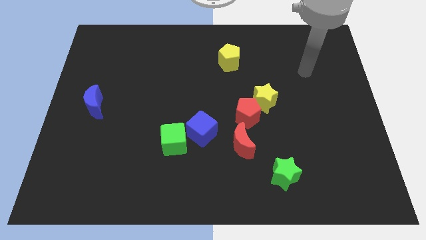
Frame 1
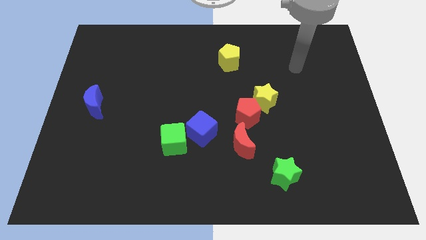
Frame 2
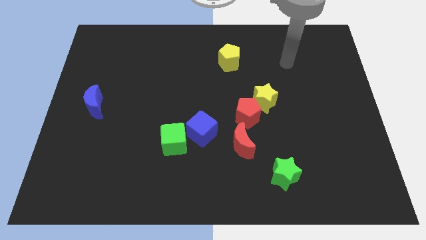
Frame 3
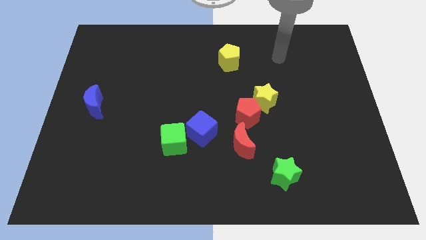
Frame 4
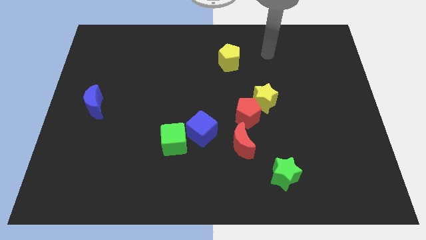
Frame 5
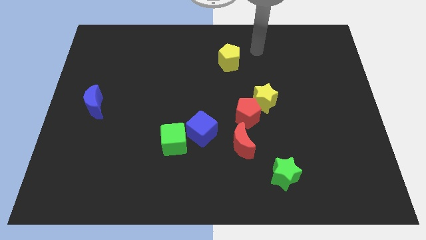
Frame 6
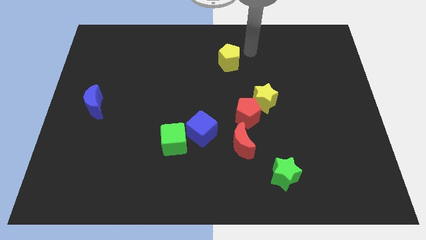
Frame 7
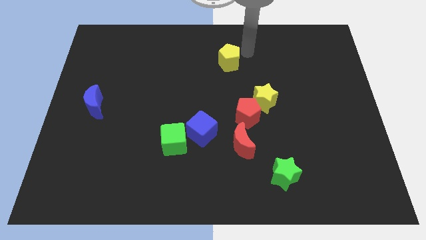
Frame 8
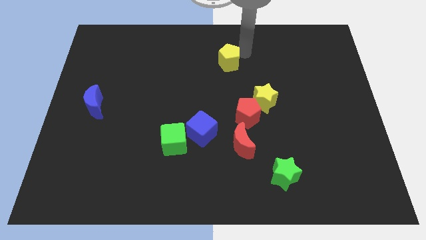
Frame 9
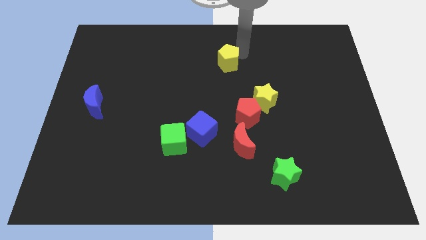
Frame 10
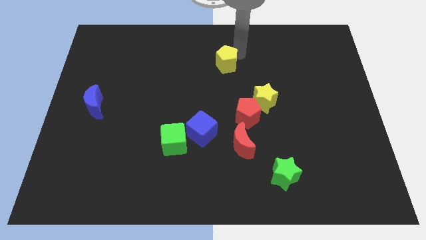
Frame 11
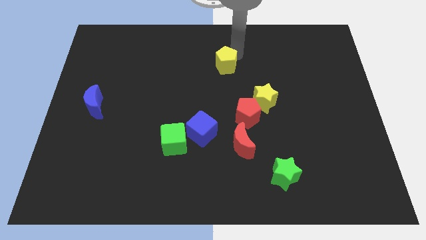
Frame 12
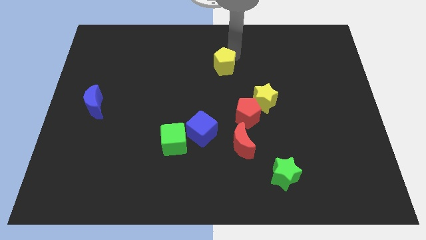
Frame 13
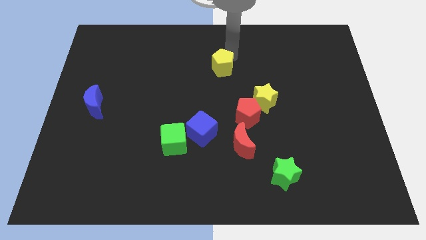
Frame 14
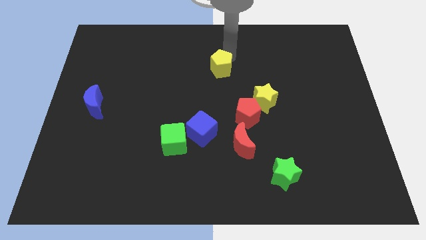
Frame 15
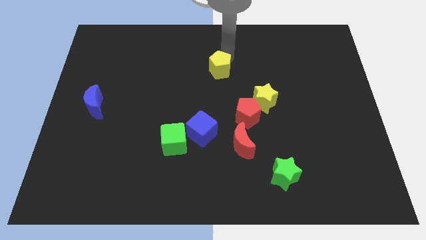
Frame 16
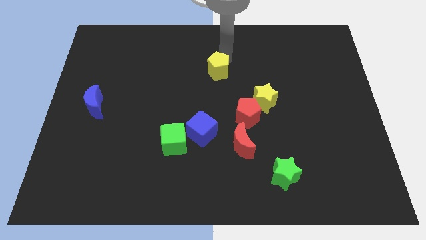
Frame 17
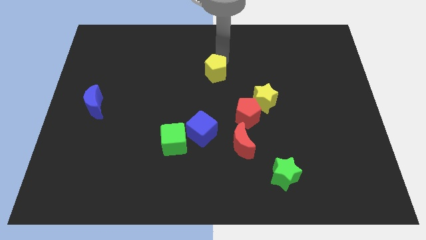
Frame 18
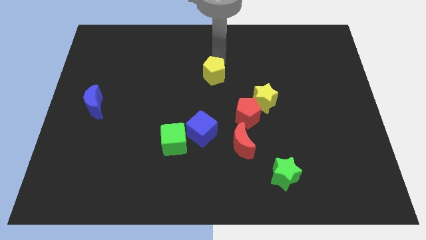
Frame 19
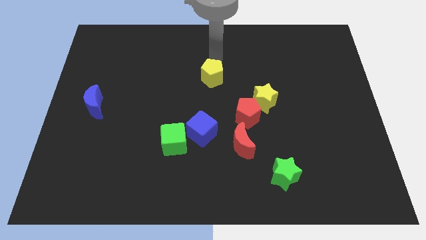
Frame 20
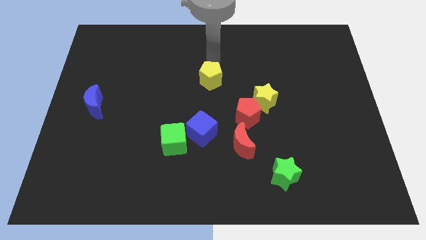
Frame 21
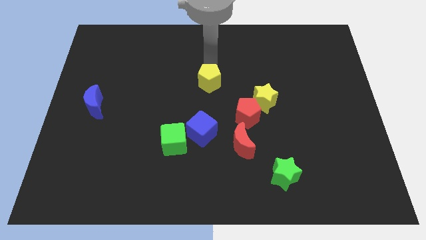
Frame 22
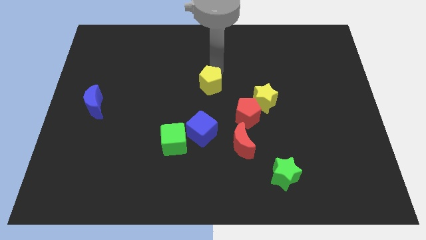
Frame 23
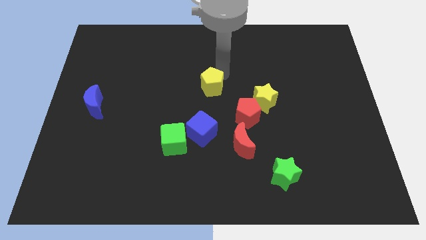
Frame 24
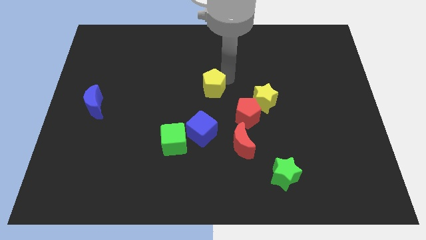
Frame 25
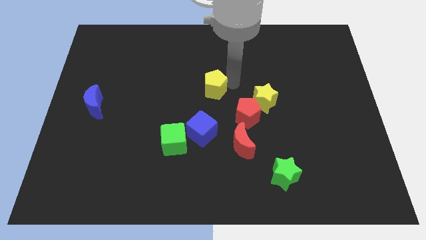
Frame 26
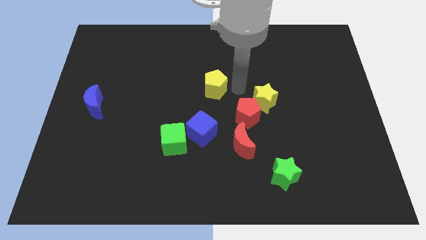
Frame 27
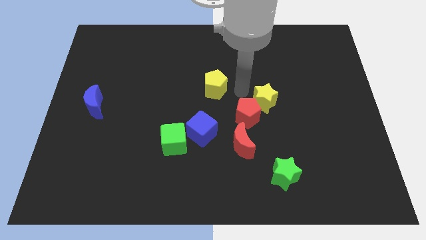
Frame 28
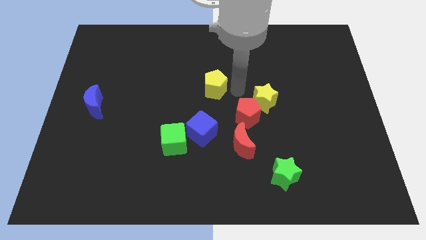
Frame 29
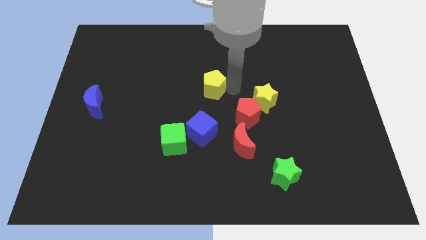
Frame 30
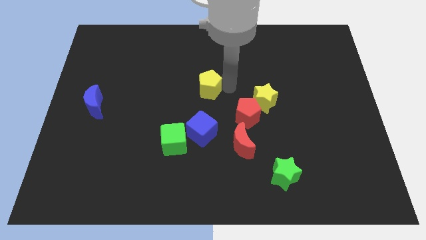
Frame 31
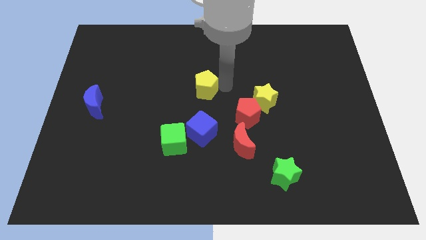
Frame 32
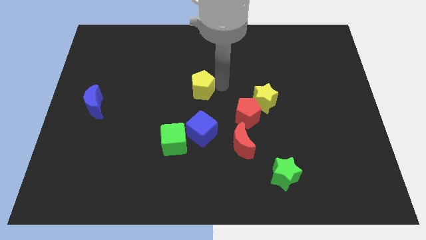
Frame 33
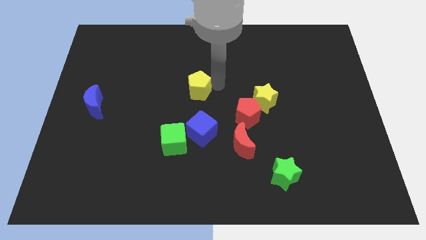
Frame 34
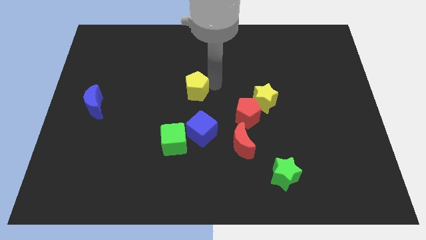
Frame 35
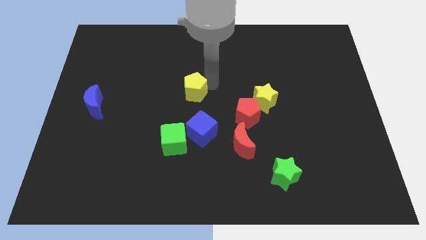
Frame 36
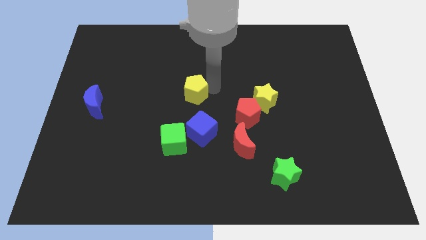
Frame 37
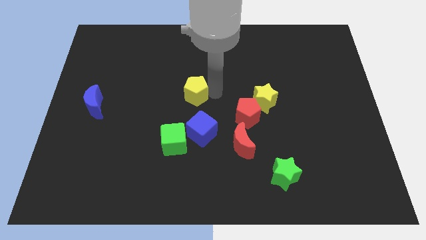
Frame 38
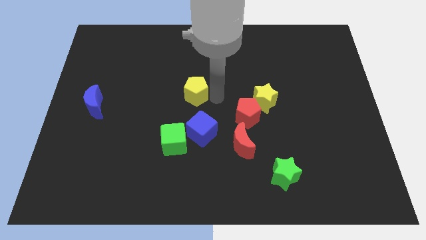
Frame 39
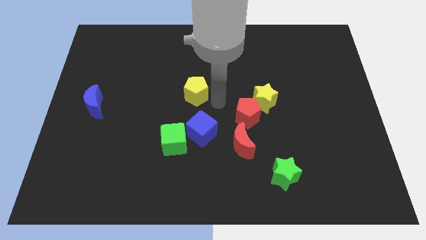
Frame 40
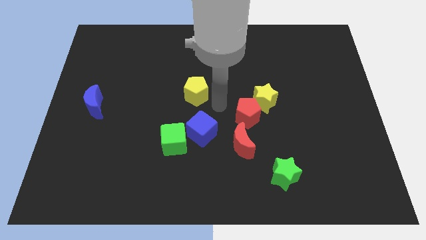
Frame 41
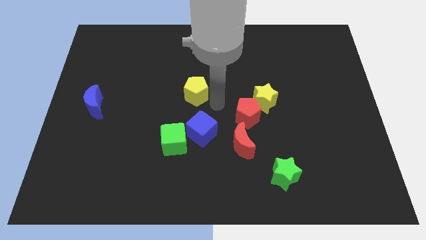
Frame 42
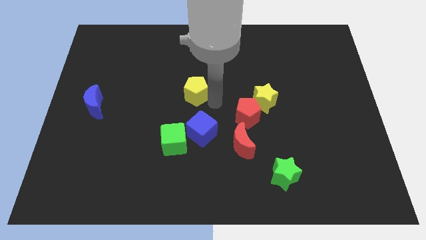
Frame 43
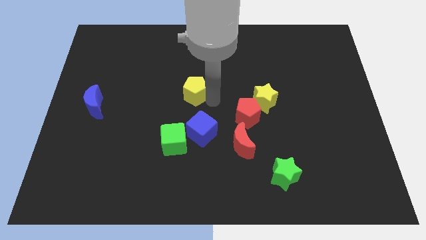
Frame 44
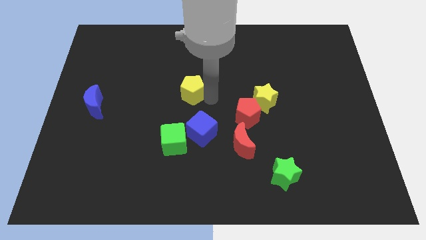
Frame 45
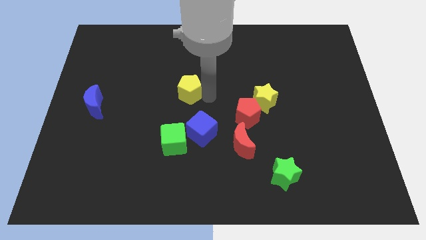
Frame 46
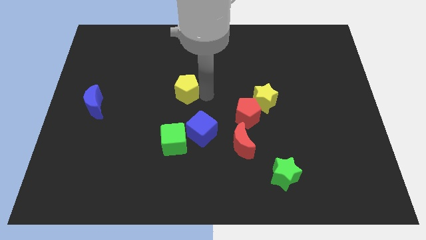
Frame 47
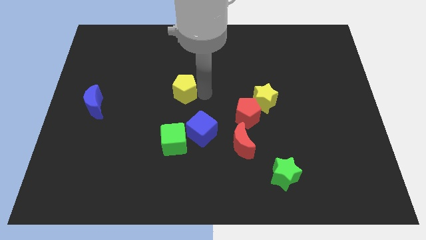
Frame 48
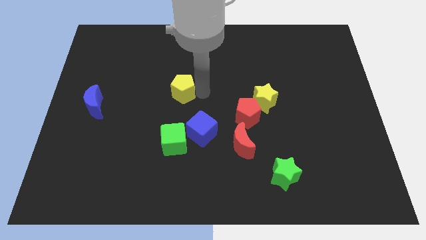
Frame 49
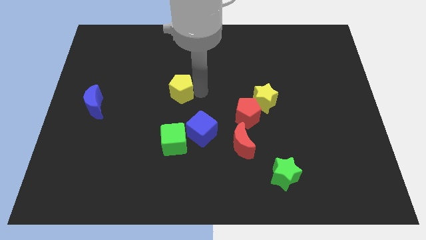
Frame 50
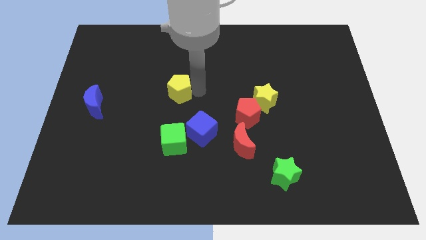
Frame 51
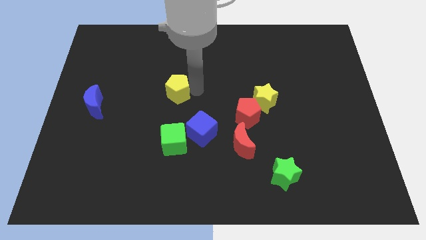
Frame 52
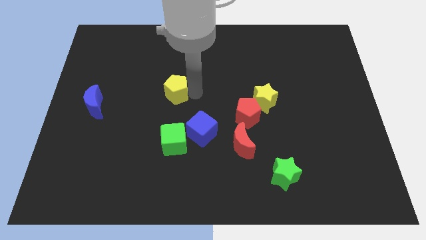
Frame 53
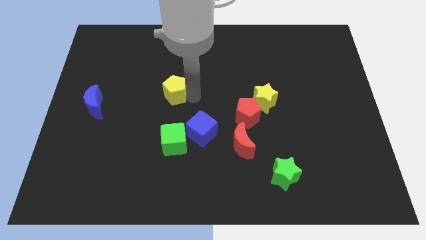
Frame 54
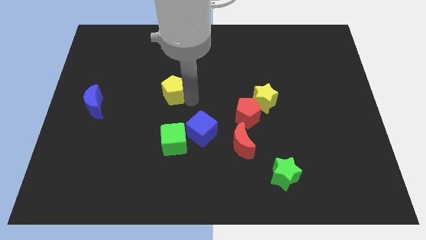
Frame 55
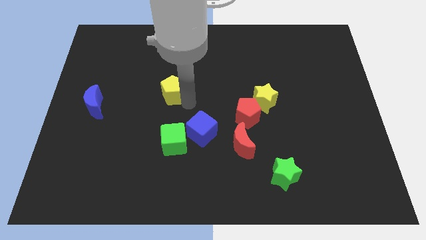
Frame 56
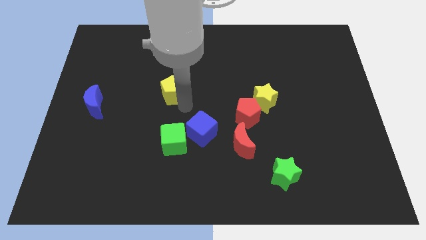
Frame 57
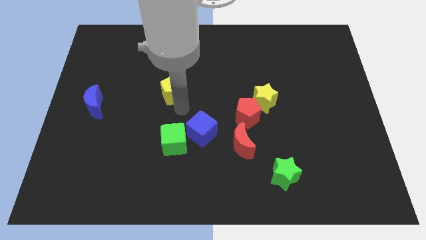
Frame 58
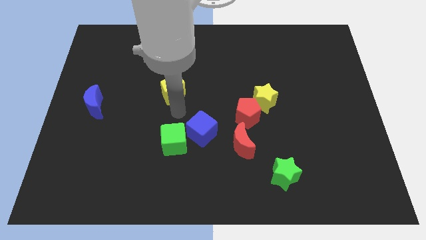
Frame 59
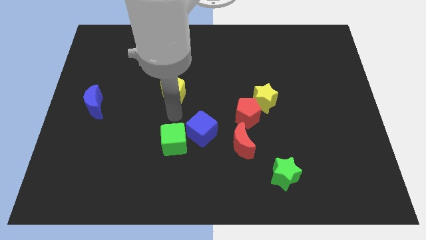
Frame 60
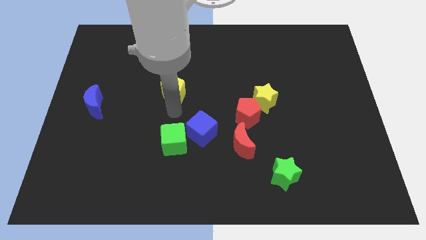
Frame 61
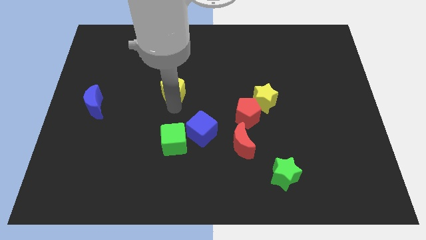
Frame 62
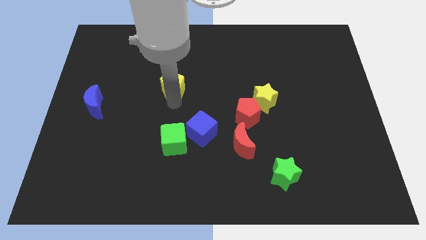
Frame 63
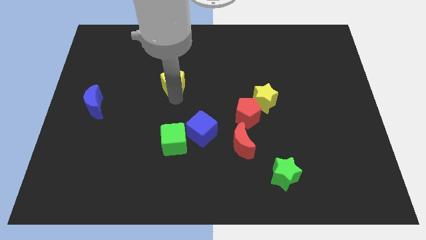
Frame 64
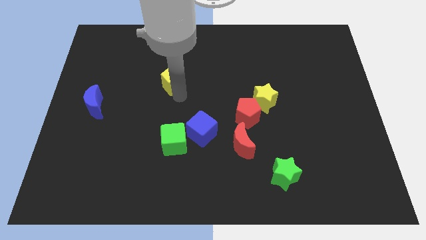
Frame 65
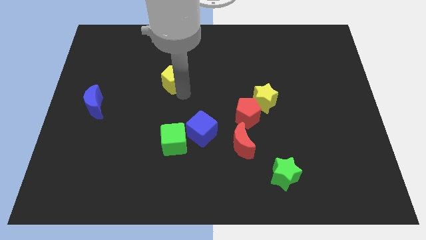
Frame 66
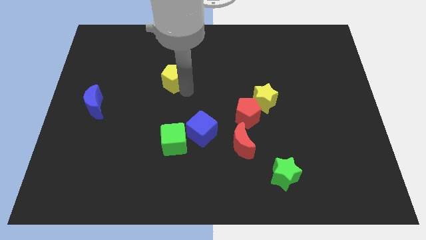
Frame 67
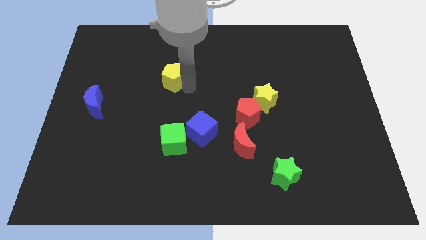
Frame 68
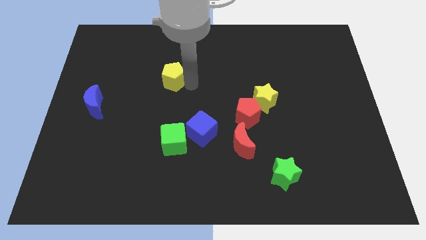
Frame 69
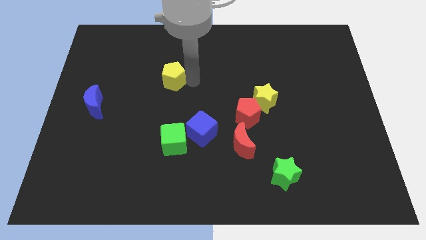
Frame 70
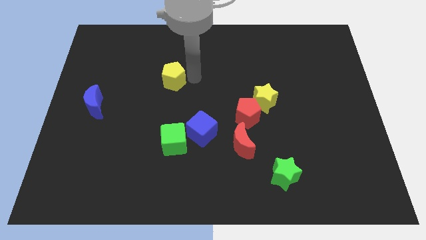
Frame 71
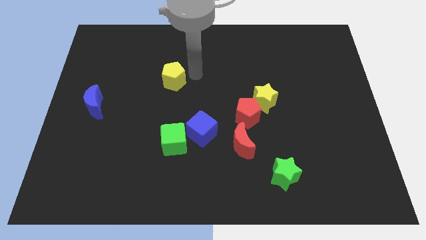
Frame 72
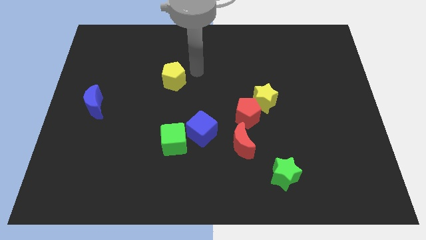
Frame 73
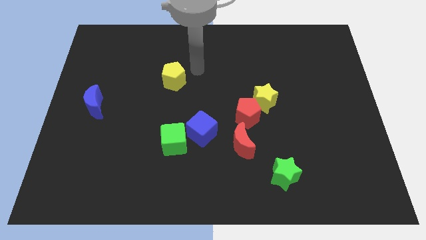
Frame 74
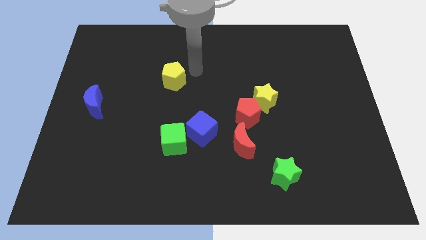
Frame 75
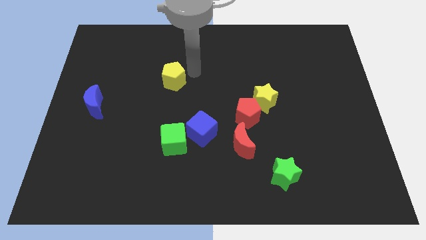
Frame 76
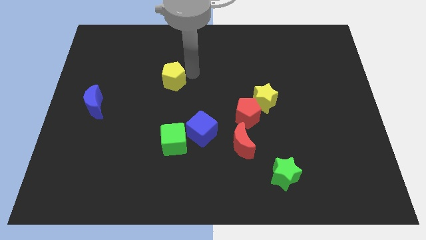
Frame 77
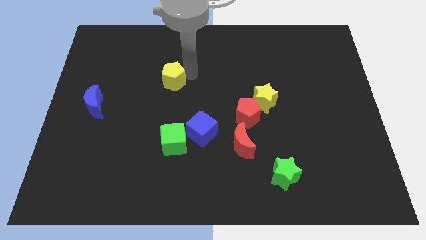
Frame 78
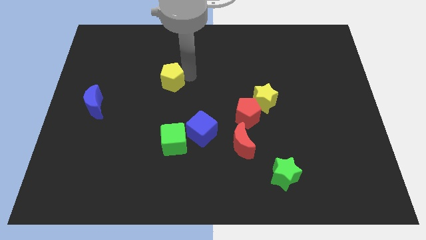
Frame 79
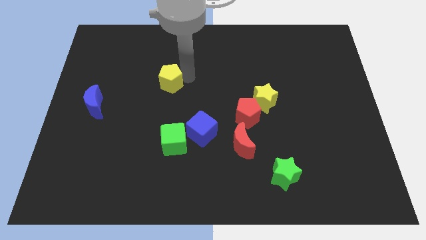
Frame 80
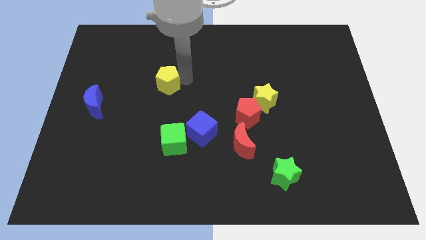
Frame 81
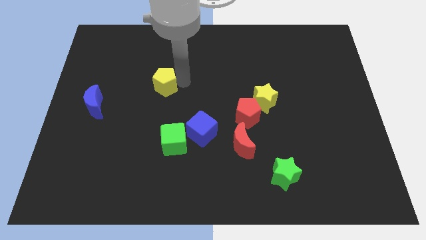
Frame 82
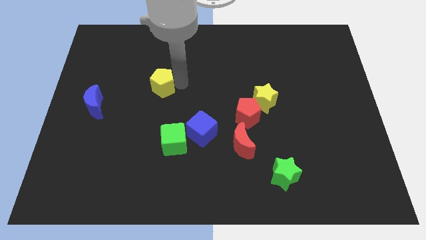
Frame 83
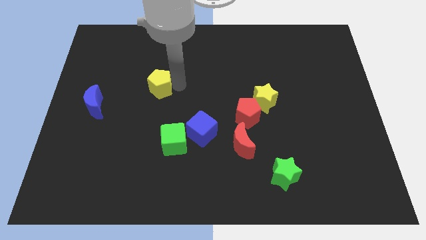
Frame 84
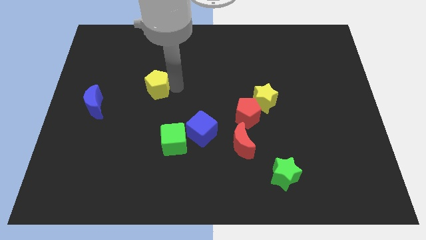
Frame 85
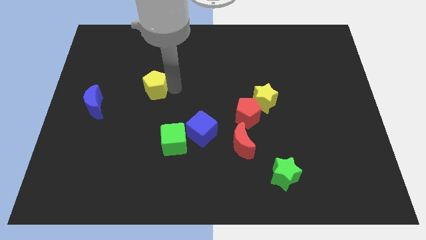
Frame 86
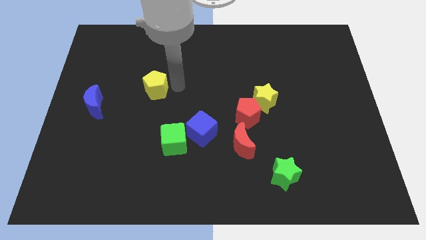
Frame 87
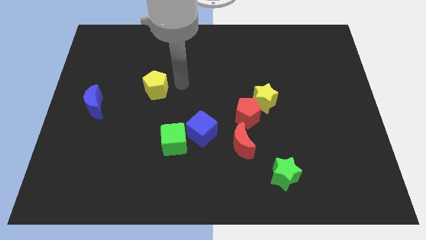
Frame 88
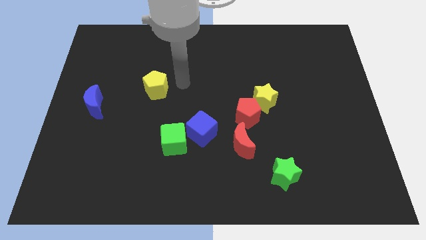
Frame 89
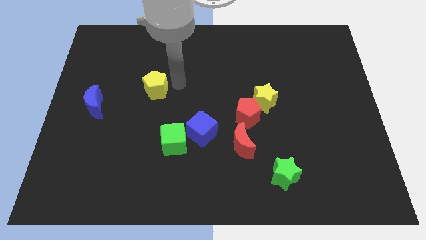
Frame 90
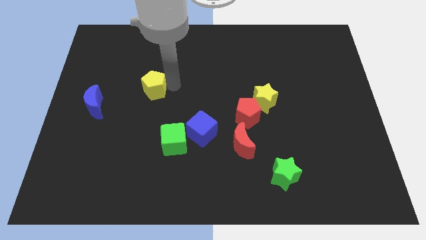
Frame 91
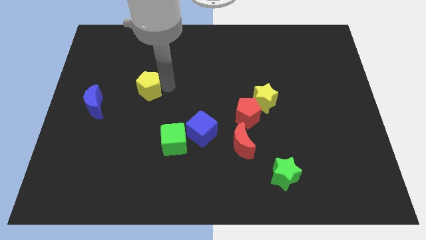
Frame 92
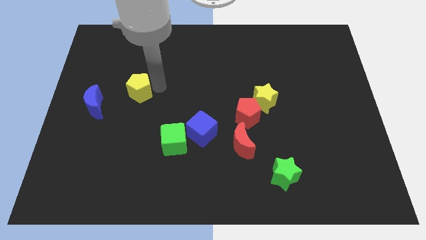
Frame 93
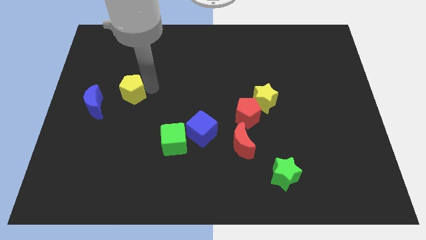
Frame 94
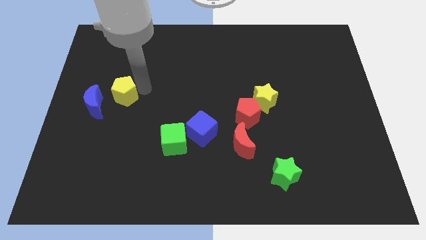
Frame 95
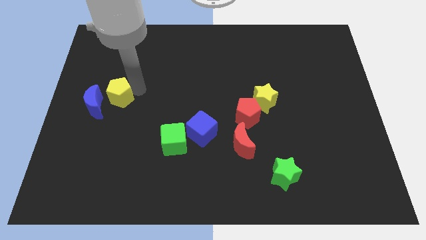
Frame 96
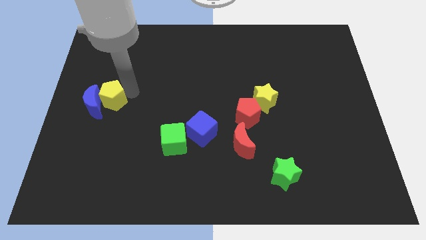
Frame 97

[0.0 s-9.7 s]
slide the yellow pentagon next to the blue moon
